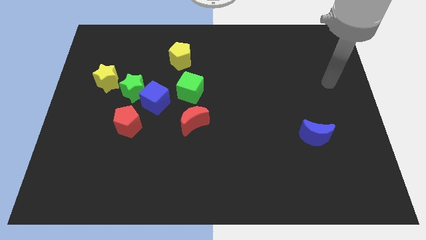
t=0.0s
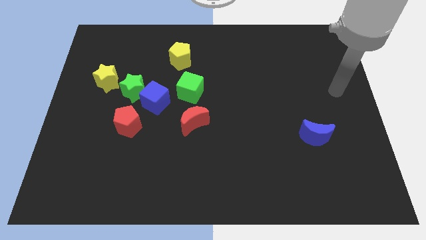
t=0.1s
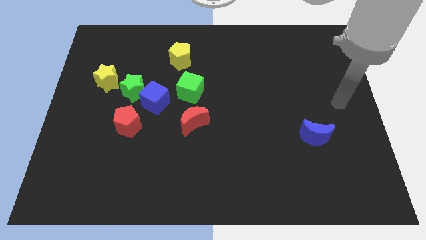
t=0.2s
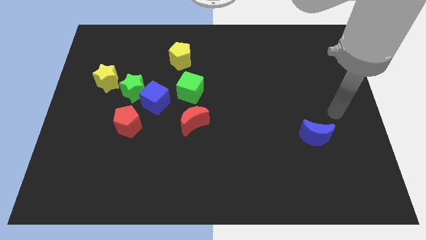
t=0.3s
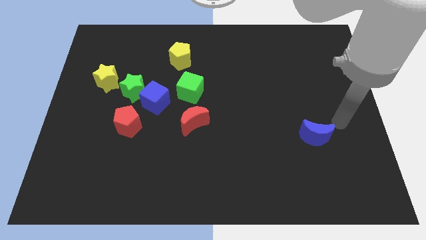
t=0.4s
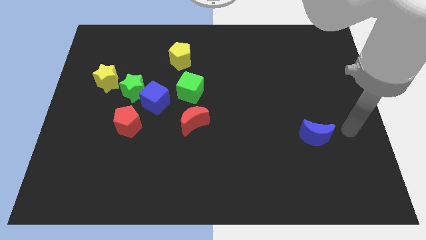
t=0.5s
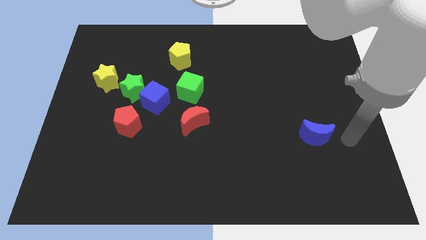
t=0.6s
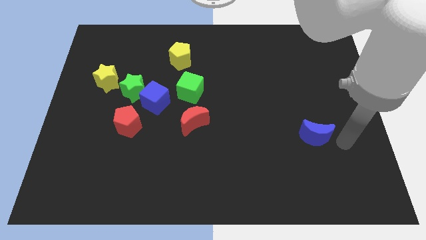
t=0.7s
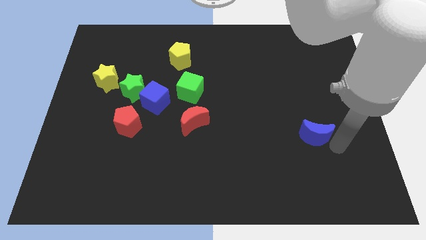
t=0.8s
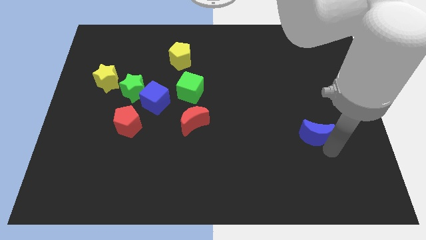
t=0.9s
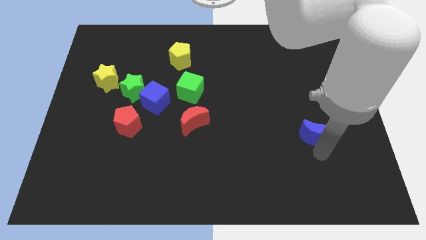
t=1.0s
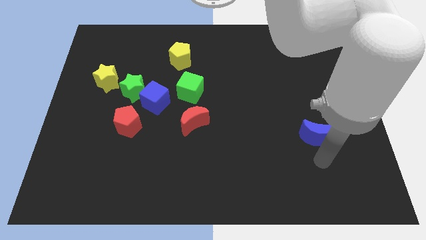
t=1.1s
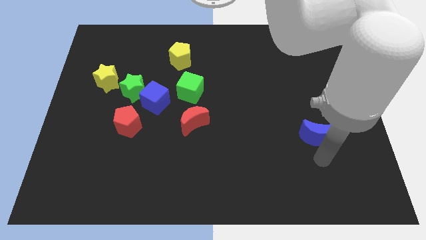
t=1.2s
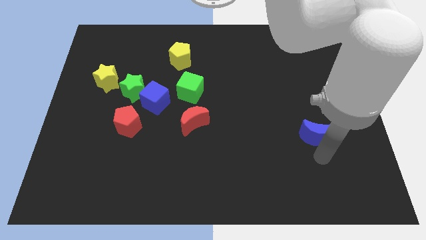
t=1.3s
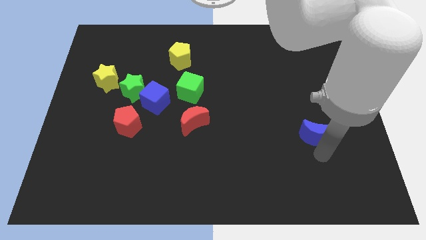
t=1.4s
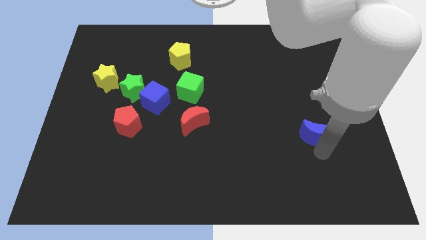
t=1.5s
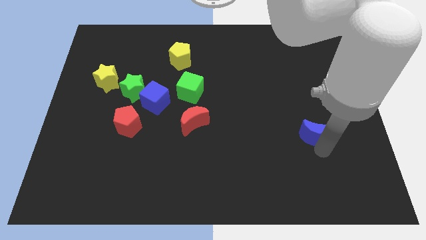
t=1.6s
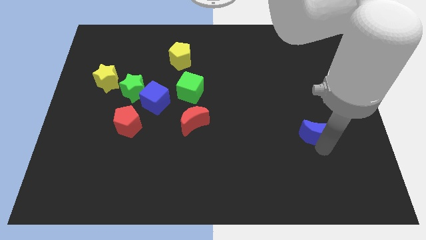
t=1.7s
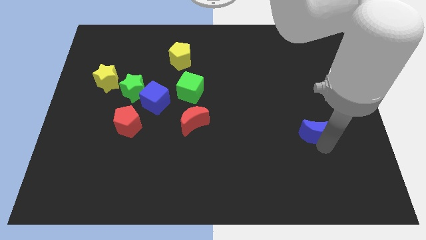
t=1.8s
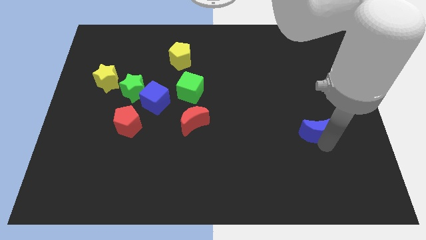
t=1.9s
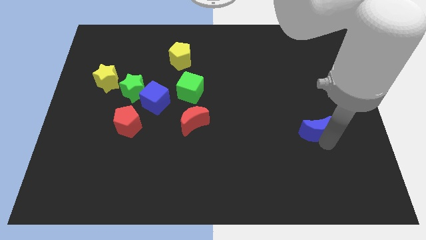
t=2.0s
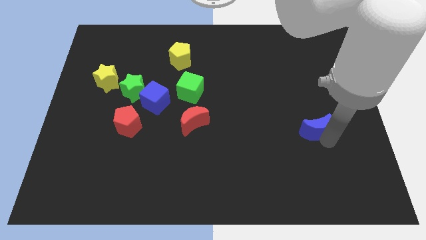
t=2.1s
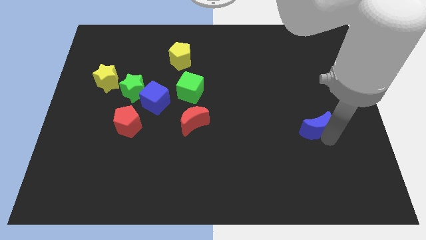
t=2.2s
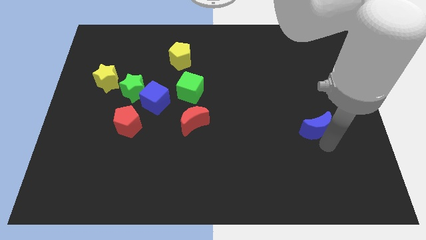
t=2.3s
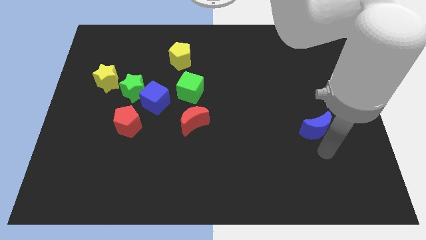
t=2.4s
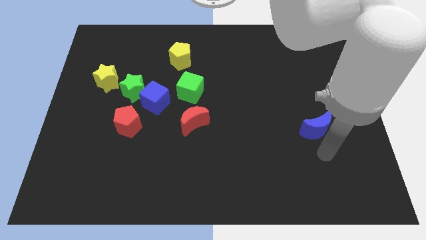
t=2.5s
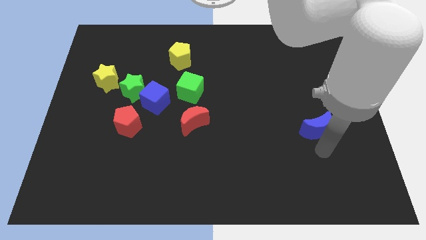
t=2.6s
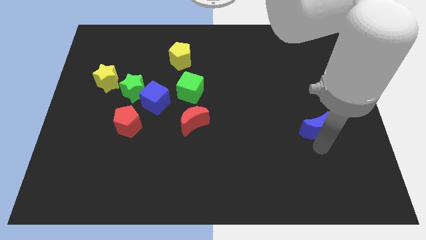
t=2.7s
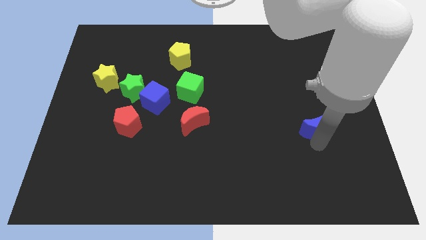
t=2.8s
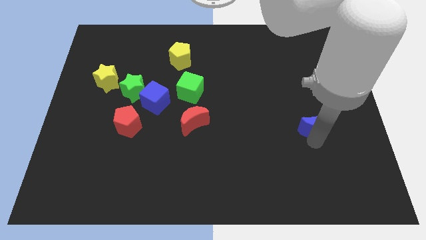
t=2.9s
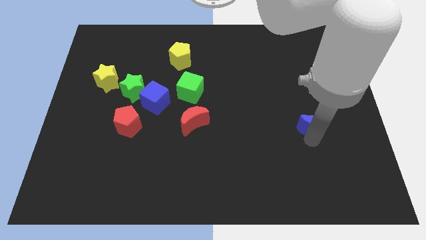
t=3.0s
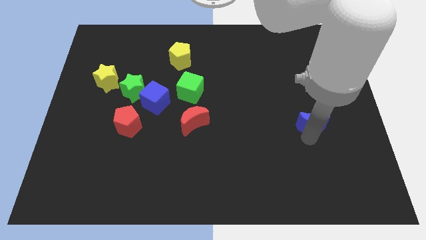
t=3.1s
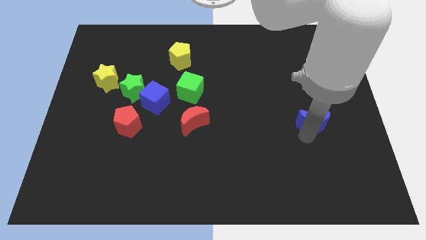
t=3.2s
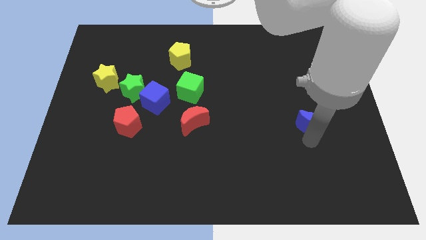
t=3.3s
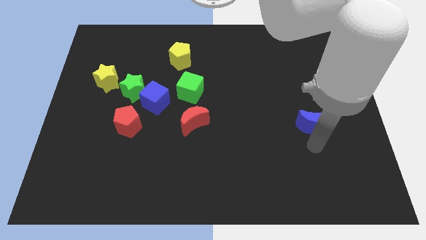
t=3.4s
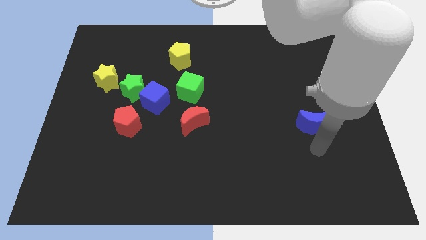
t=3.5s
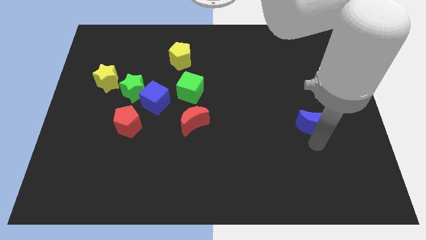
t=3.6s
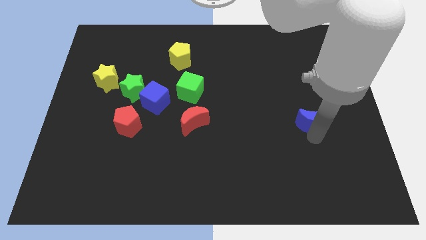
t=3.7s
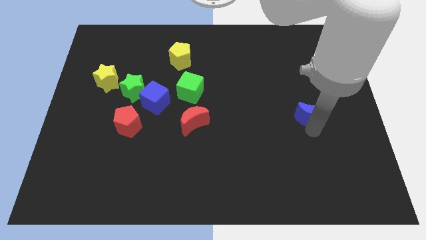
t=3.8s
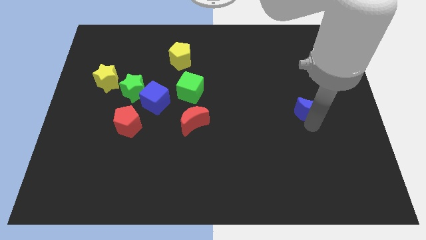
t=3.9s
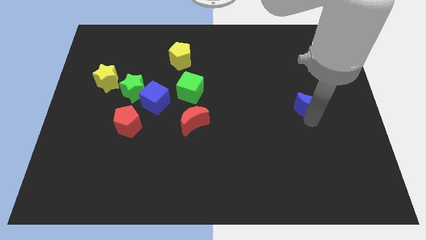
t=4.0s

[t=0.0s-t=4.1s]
slightly move the blue moon upwards

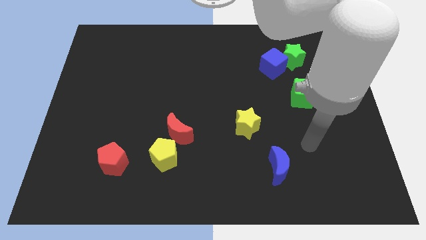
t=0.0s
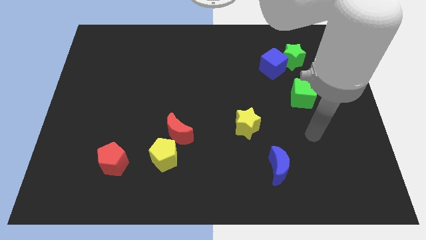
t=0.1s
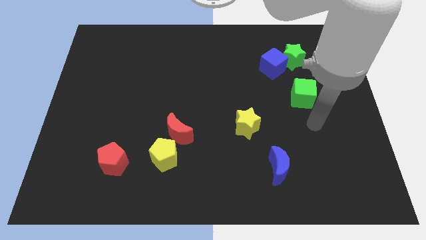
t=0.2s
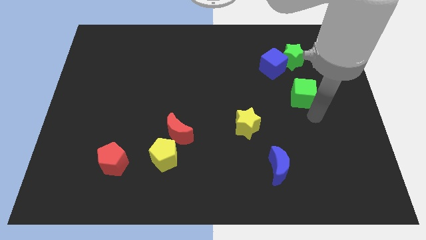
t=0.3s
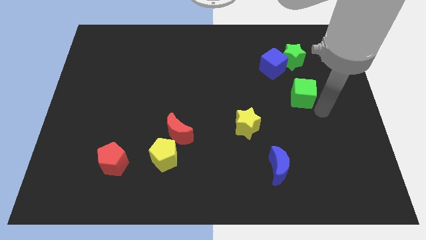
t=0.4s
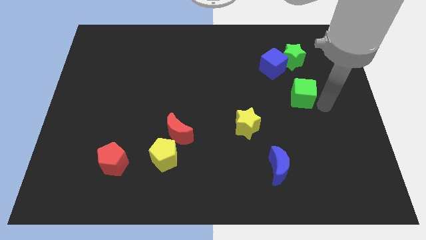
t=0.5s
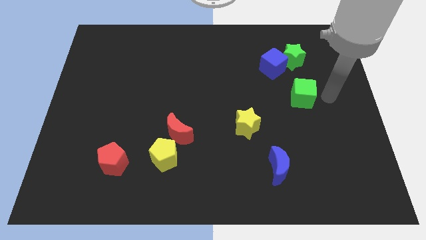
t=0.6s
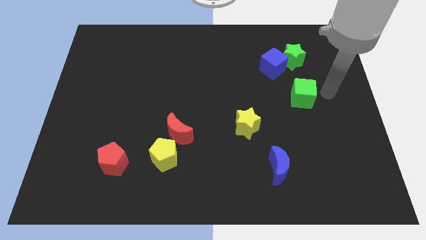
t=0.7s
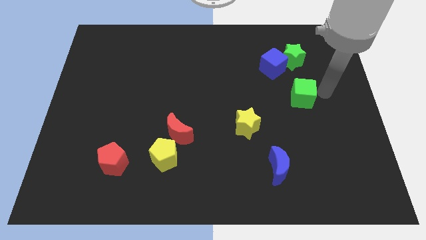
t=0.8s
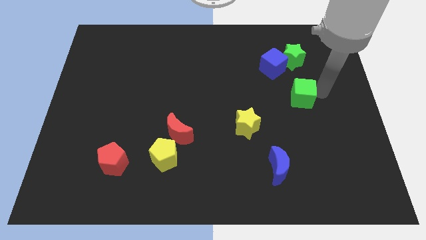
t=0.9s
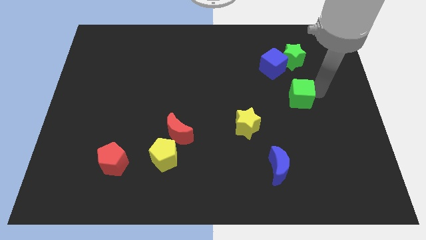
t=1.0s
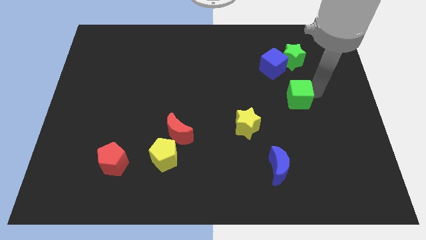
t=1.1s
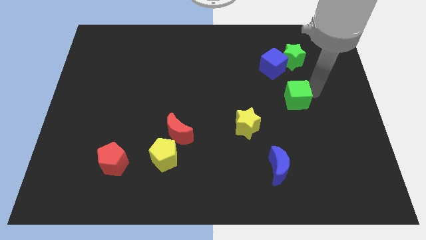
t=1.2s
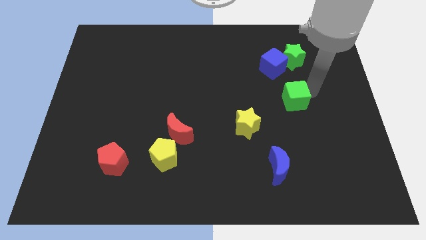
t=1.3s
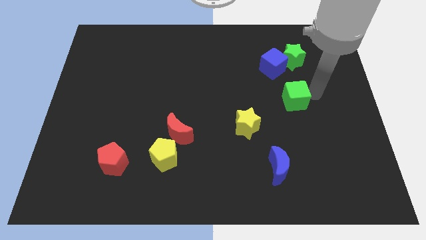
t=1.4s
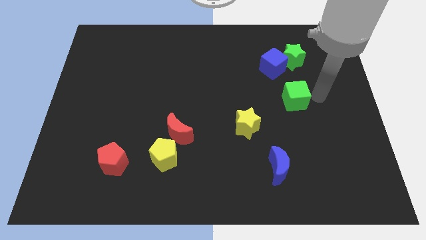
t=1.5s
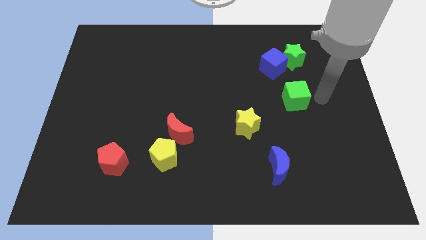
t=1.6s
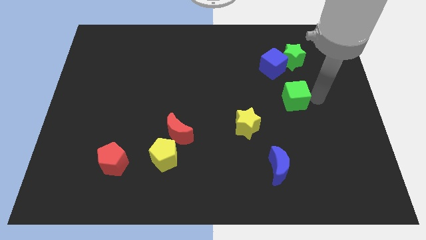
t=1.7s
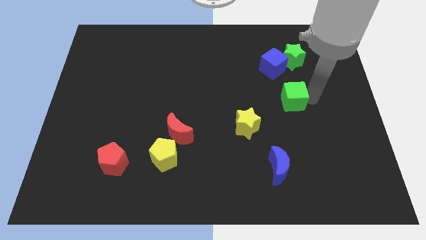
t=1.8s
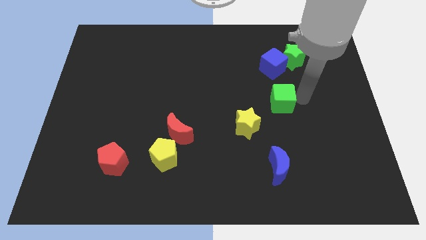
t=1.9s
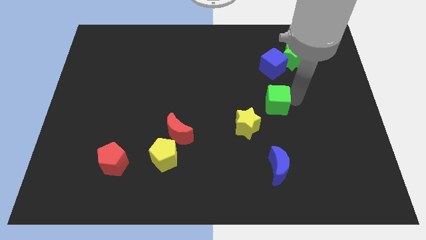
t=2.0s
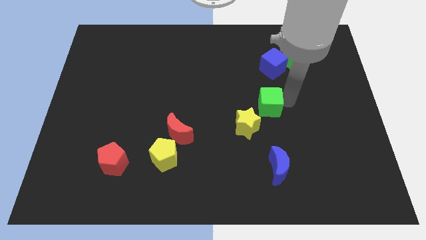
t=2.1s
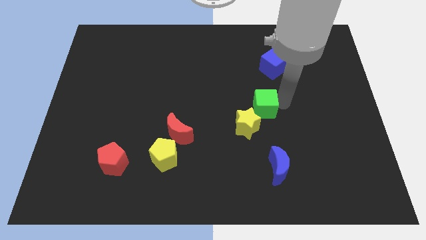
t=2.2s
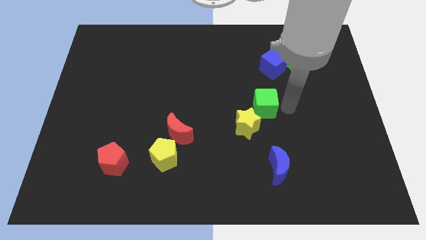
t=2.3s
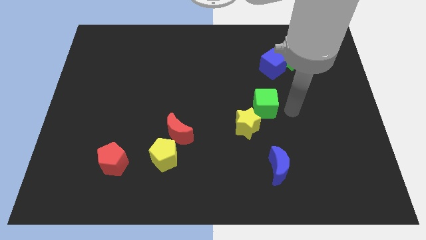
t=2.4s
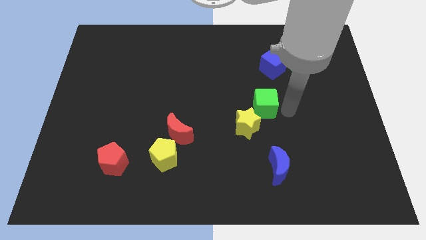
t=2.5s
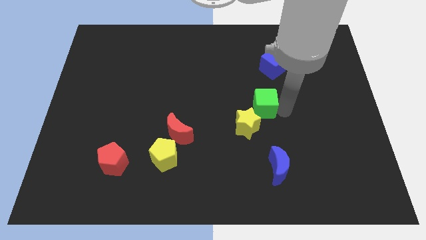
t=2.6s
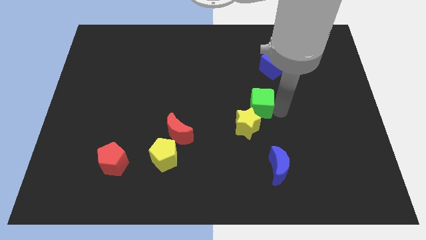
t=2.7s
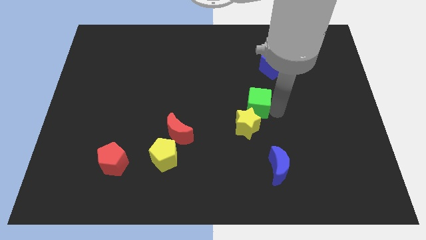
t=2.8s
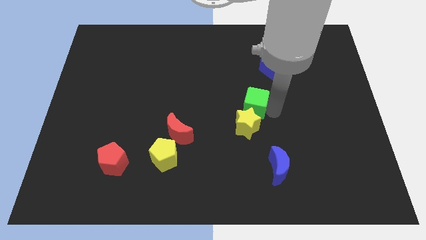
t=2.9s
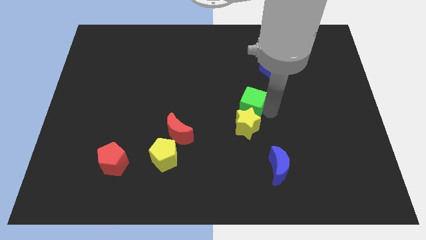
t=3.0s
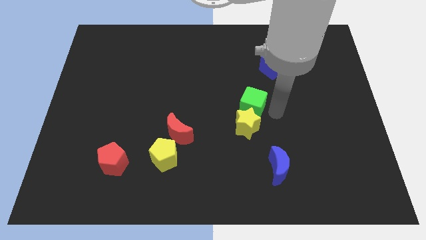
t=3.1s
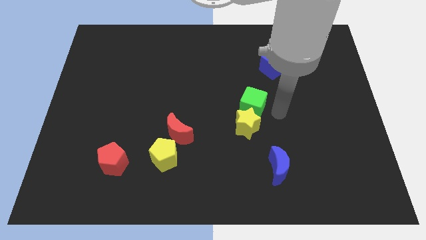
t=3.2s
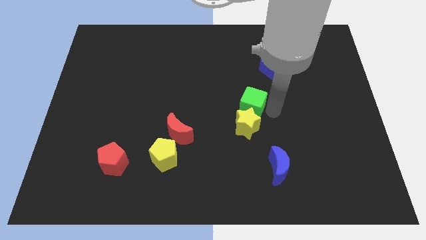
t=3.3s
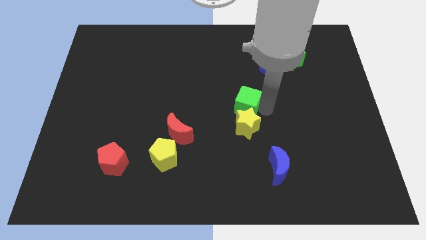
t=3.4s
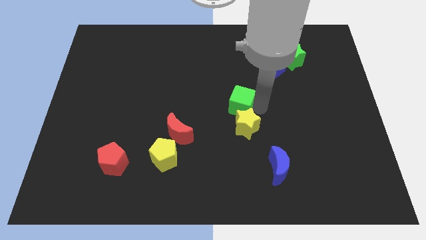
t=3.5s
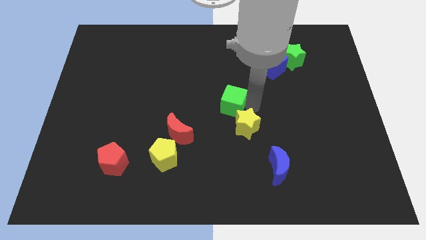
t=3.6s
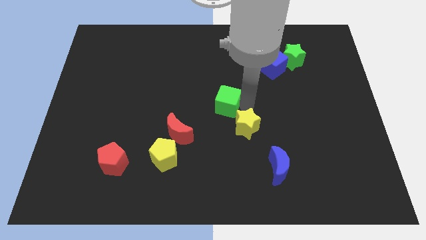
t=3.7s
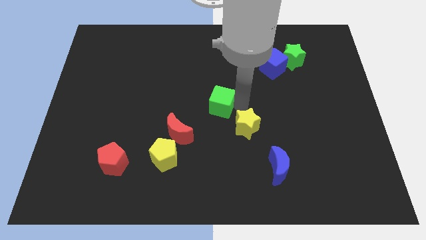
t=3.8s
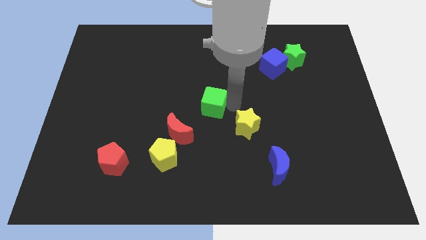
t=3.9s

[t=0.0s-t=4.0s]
slide the green cube left
